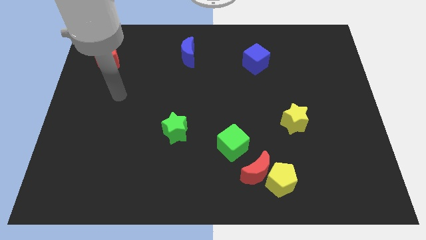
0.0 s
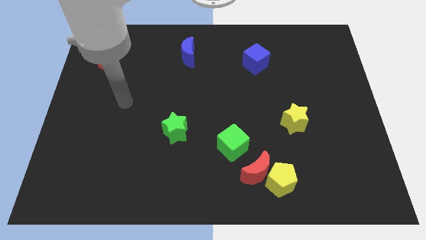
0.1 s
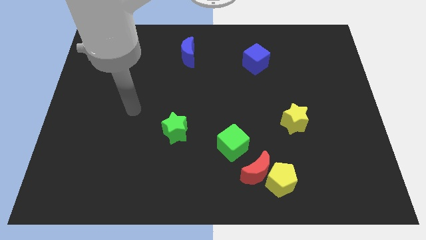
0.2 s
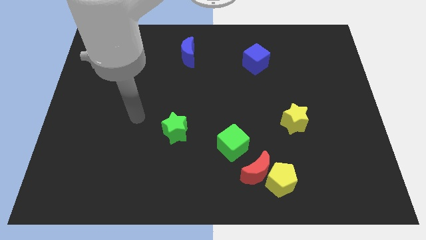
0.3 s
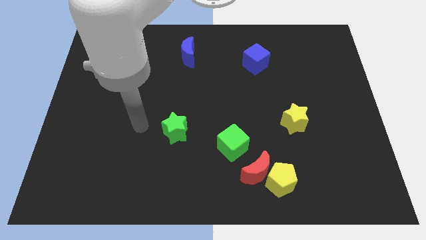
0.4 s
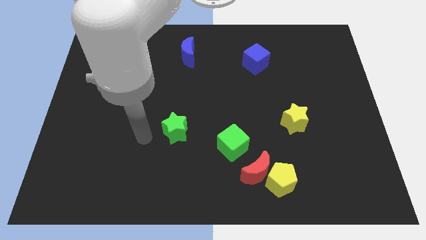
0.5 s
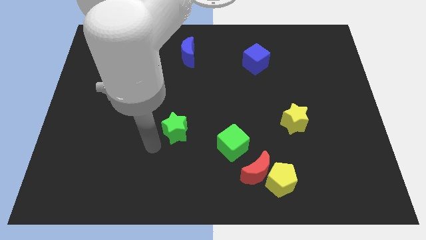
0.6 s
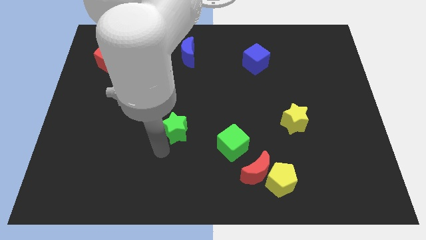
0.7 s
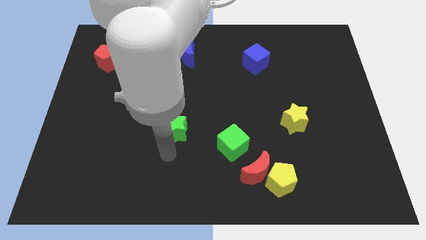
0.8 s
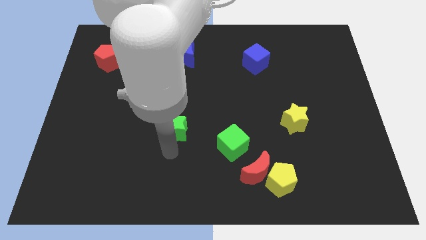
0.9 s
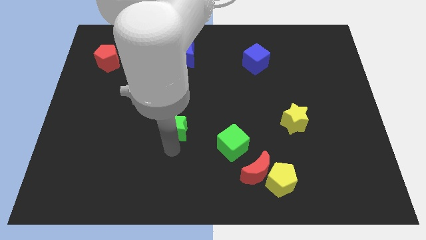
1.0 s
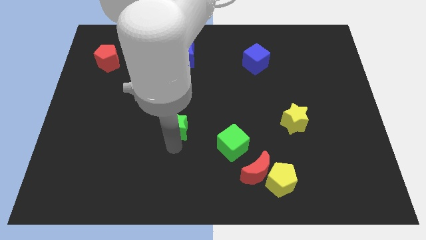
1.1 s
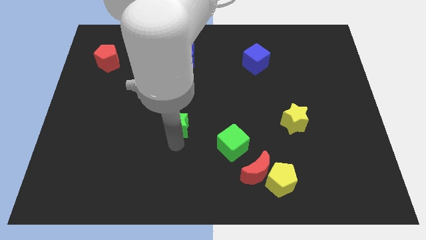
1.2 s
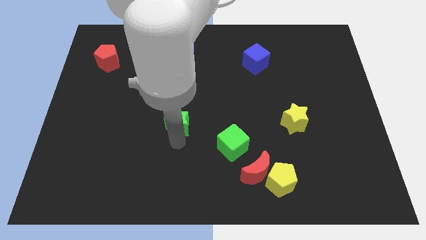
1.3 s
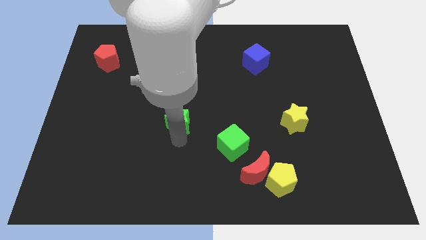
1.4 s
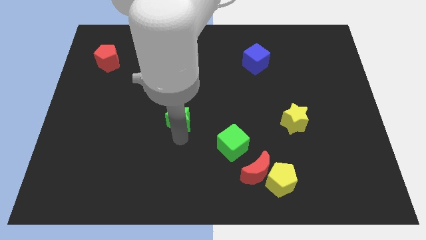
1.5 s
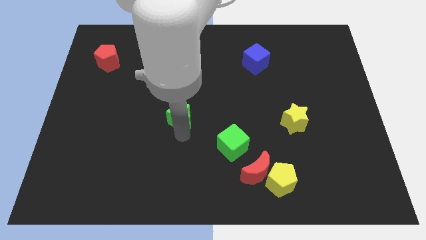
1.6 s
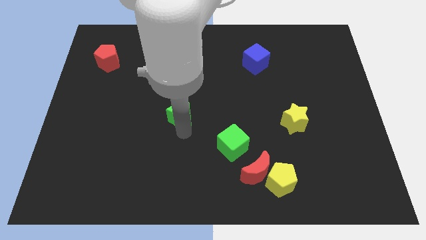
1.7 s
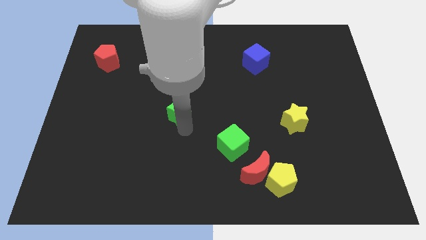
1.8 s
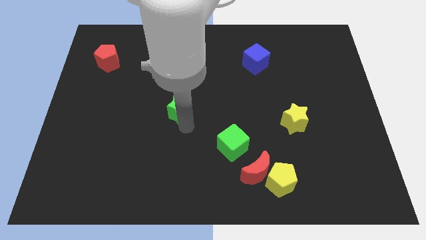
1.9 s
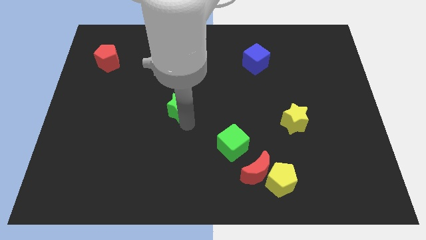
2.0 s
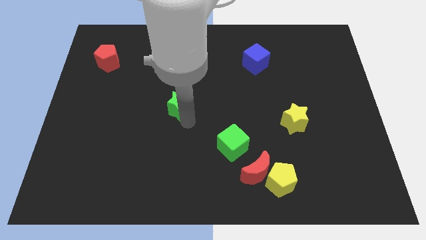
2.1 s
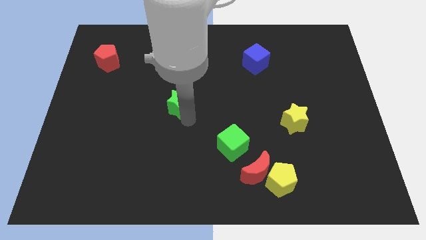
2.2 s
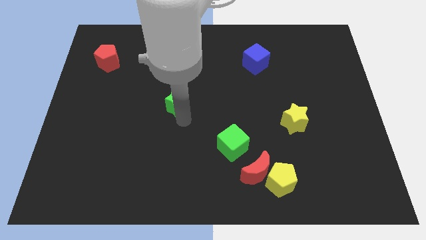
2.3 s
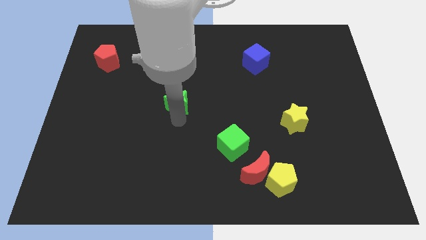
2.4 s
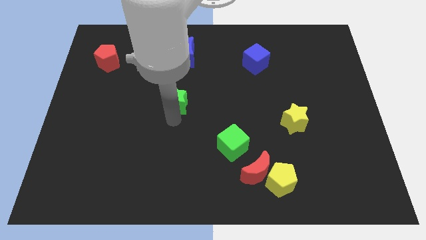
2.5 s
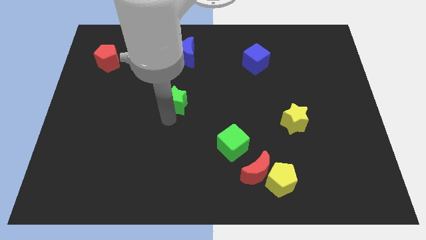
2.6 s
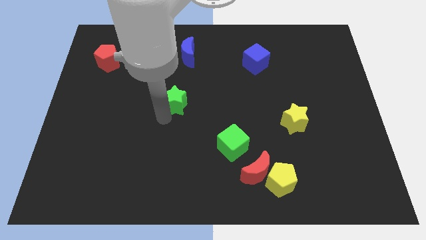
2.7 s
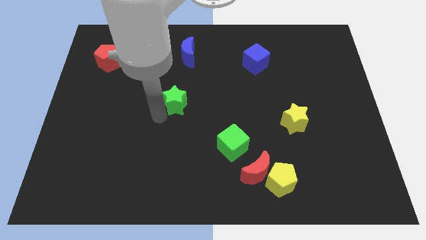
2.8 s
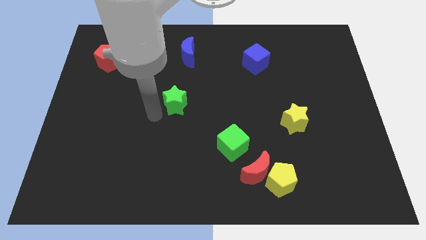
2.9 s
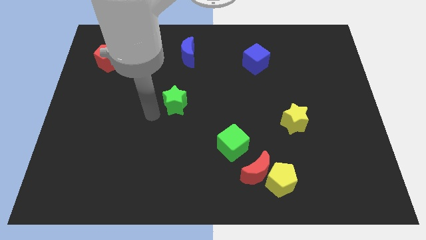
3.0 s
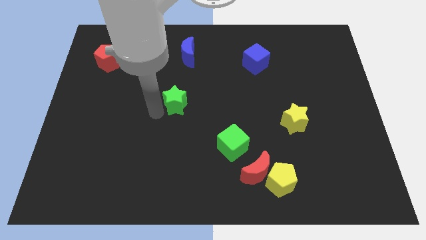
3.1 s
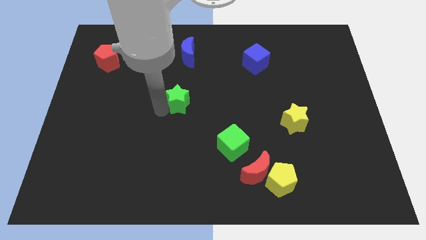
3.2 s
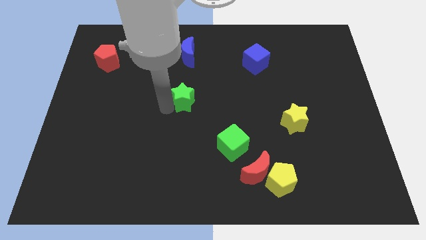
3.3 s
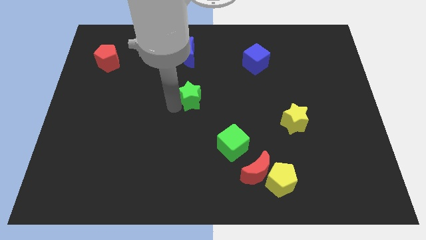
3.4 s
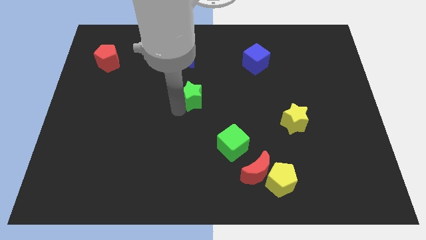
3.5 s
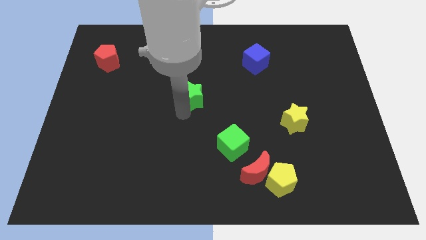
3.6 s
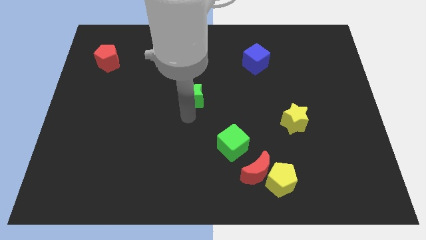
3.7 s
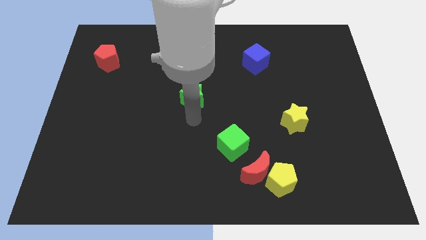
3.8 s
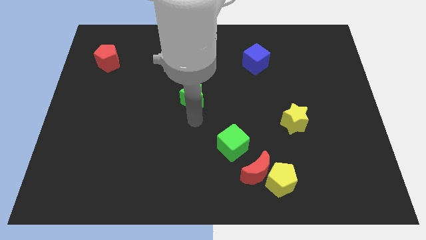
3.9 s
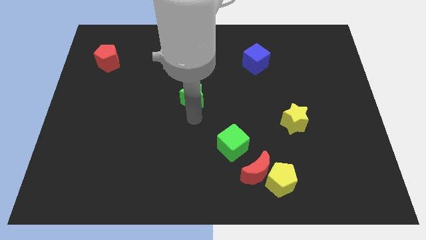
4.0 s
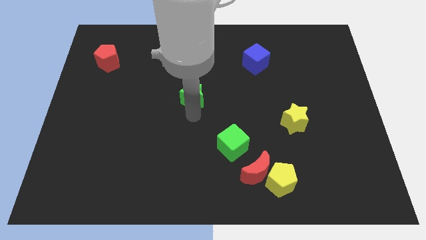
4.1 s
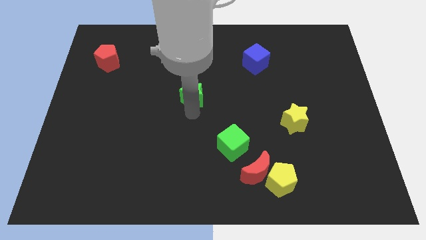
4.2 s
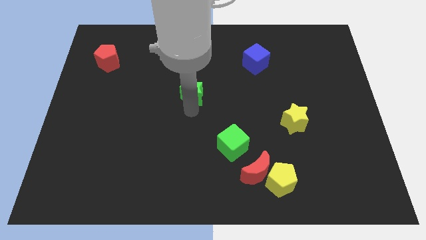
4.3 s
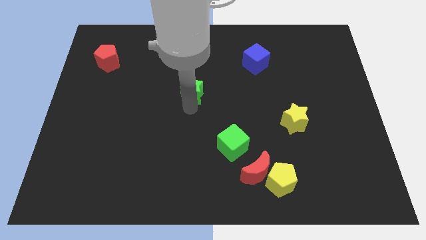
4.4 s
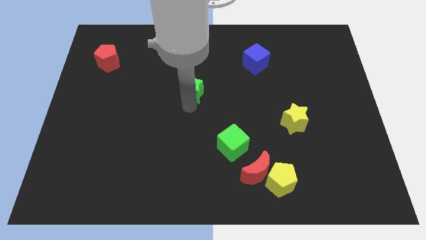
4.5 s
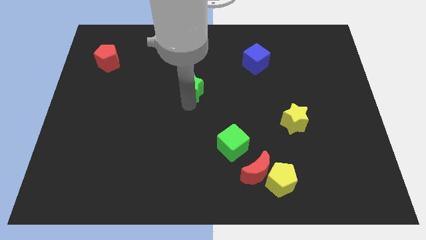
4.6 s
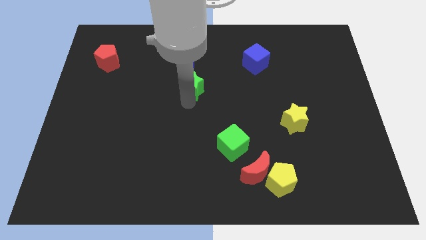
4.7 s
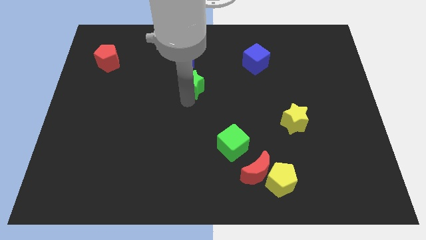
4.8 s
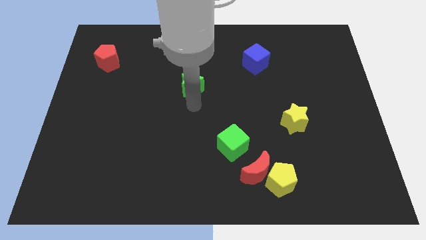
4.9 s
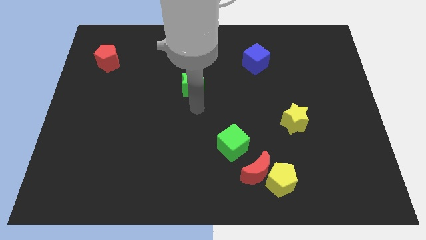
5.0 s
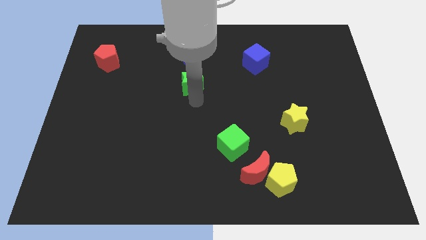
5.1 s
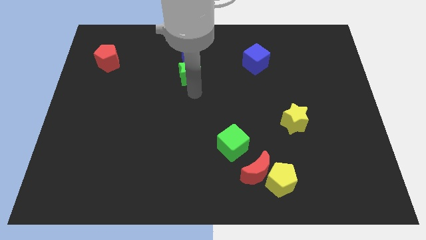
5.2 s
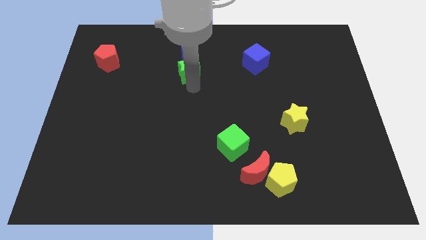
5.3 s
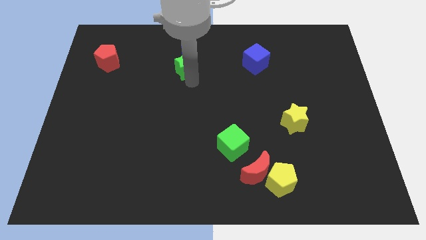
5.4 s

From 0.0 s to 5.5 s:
put the green star towards the blue moon

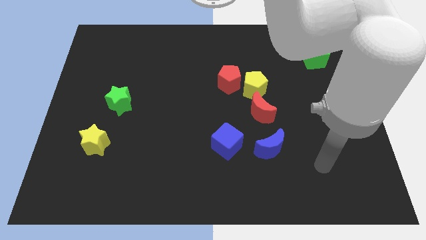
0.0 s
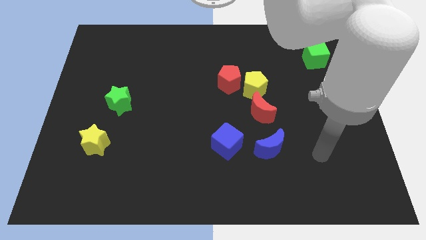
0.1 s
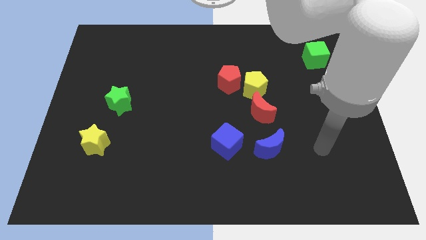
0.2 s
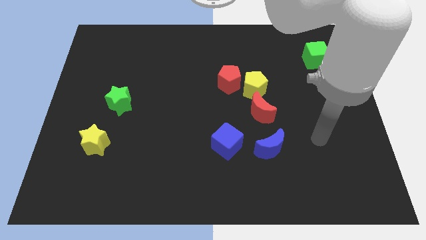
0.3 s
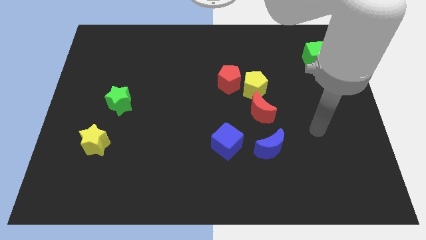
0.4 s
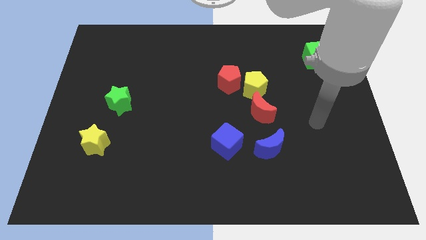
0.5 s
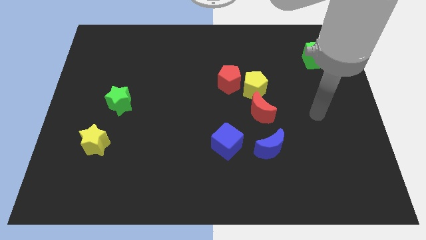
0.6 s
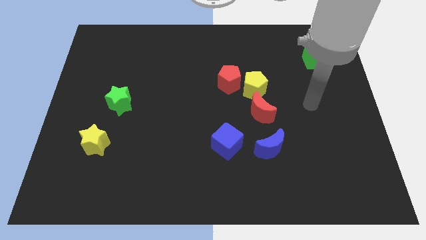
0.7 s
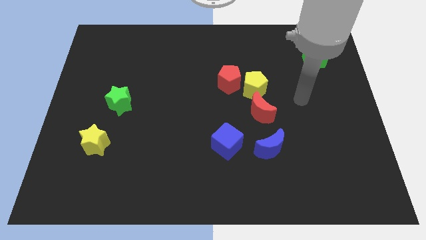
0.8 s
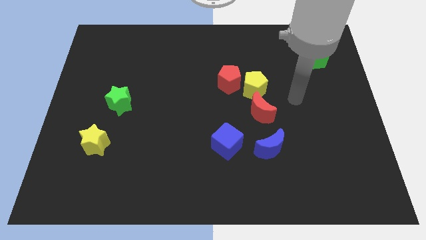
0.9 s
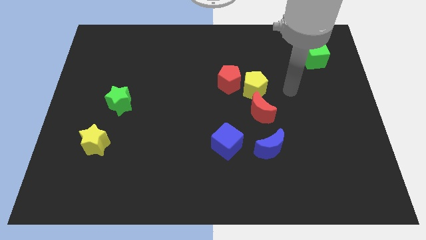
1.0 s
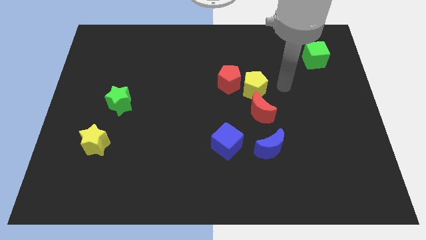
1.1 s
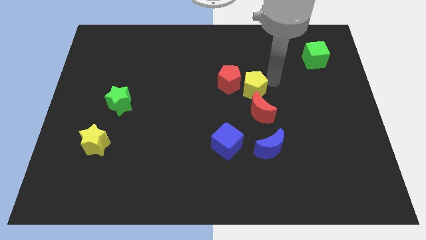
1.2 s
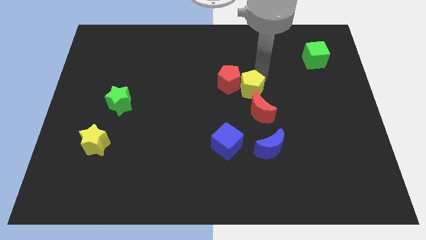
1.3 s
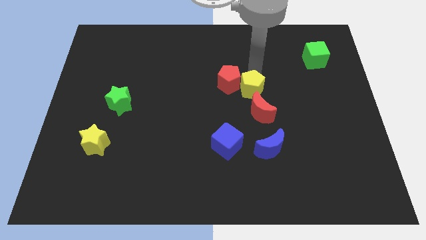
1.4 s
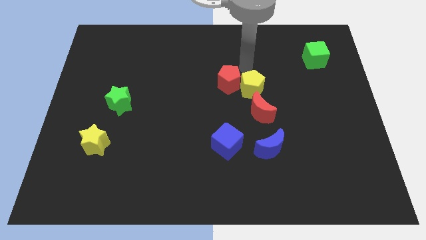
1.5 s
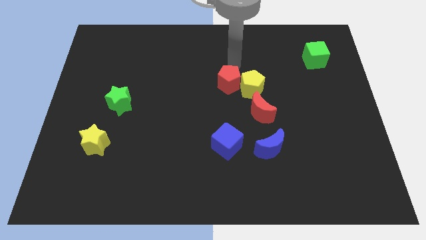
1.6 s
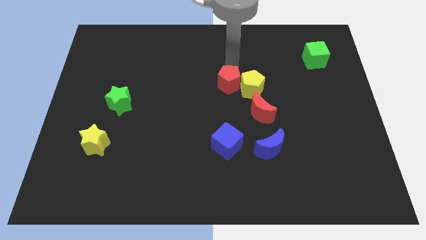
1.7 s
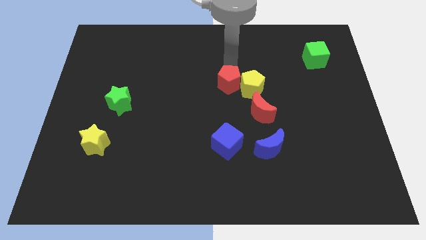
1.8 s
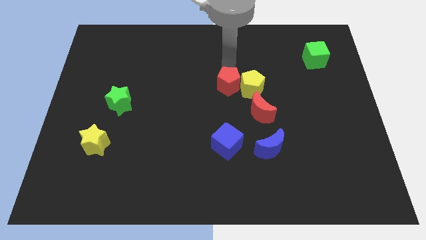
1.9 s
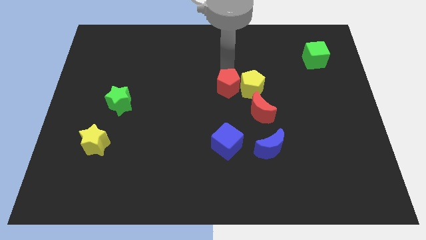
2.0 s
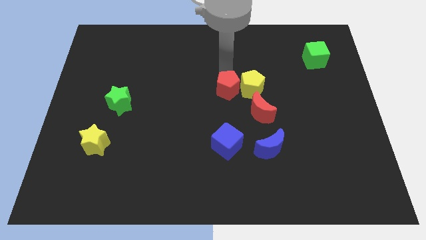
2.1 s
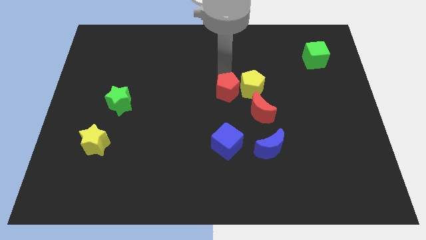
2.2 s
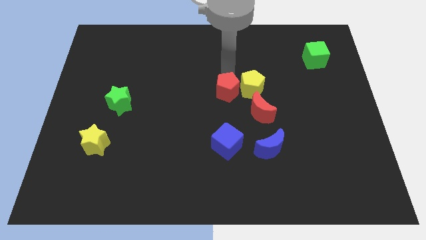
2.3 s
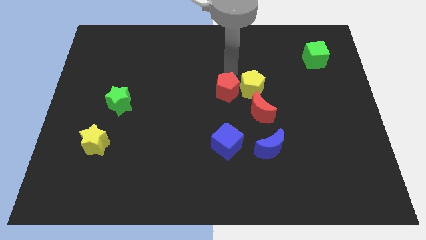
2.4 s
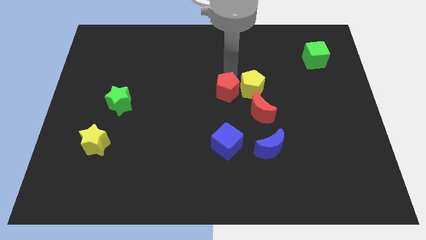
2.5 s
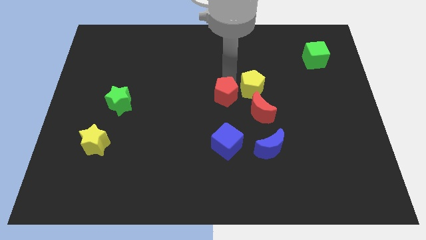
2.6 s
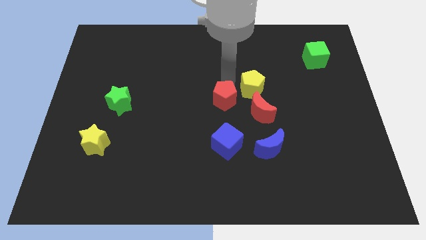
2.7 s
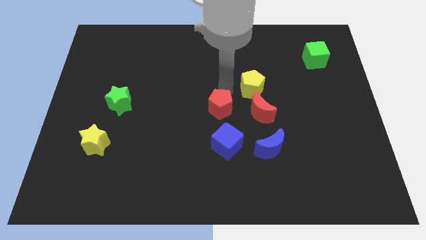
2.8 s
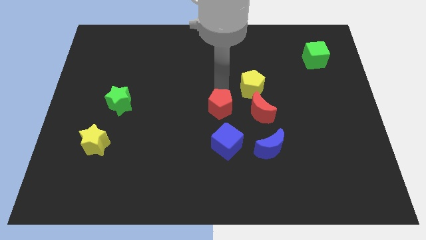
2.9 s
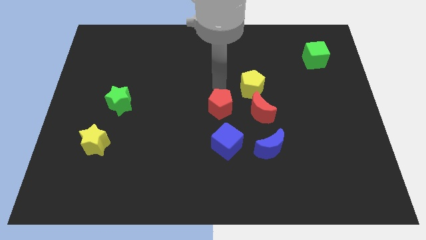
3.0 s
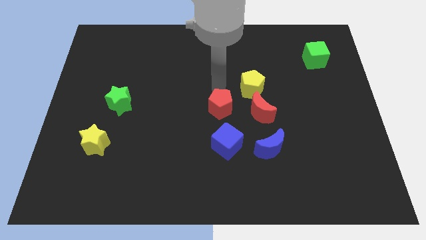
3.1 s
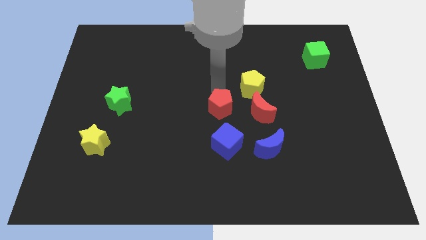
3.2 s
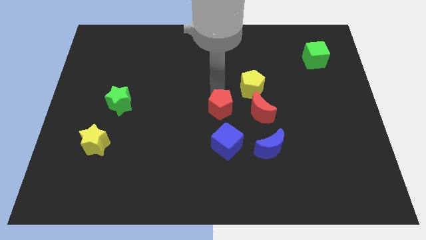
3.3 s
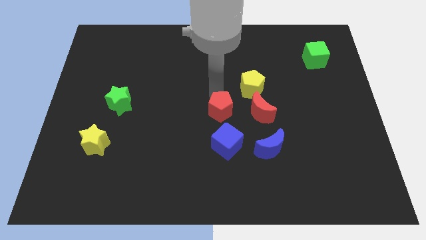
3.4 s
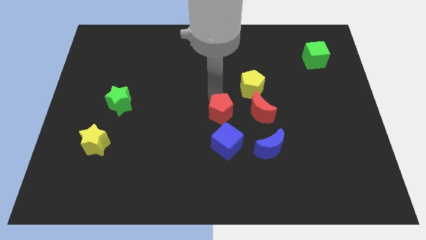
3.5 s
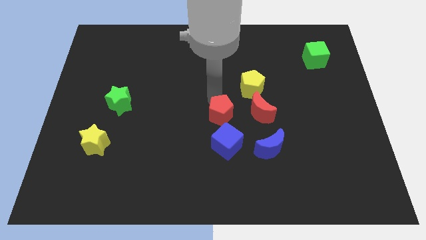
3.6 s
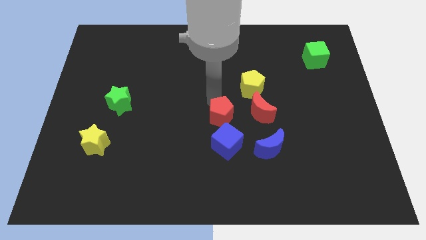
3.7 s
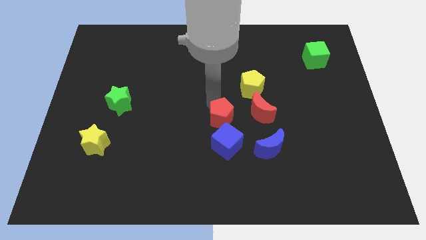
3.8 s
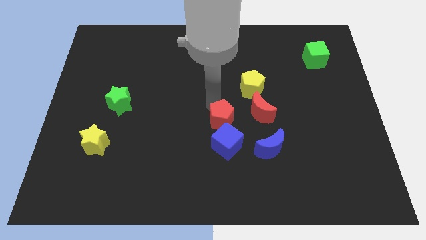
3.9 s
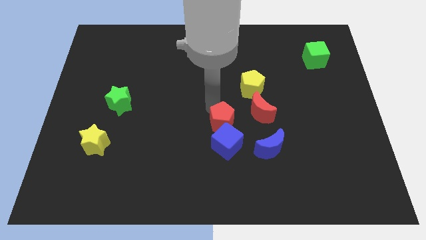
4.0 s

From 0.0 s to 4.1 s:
move the red pentagon towards the blue cube
